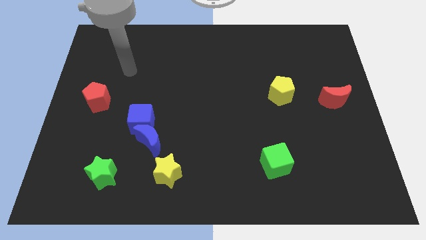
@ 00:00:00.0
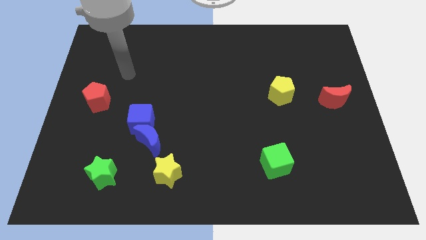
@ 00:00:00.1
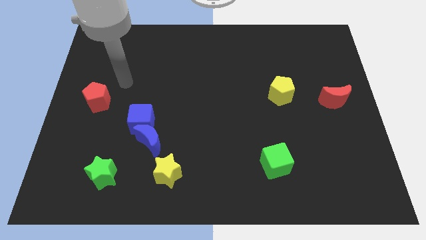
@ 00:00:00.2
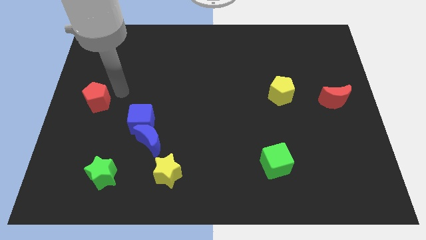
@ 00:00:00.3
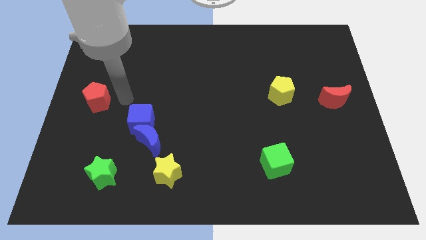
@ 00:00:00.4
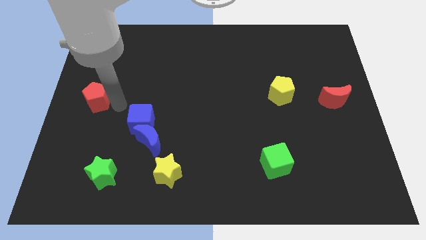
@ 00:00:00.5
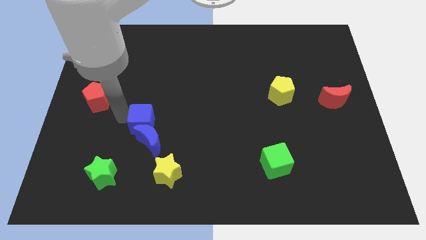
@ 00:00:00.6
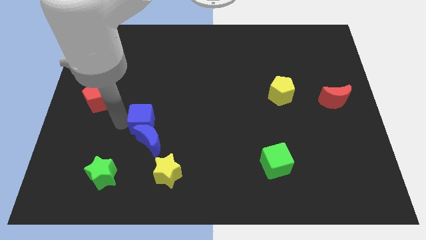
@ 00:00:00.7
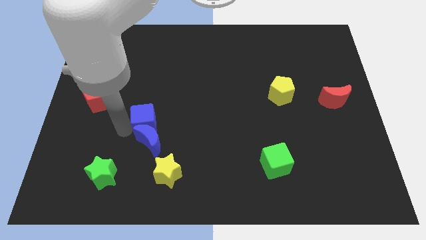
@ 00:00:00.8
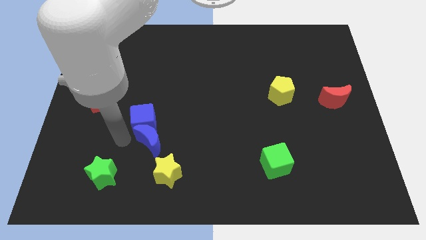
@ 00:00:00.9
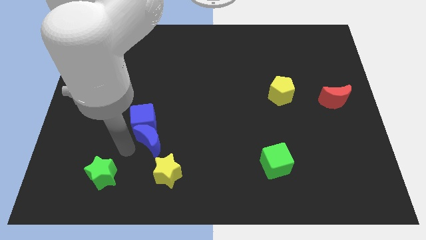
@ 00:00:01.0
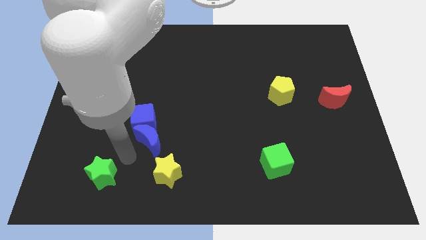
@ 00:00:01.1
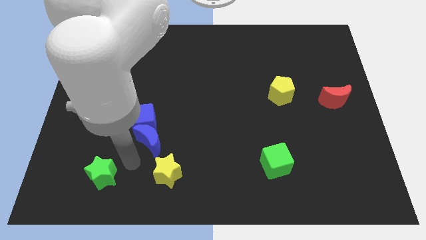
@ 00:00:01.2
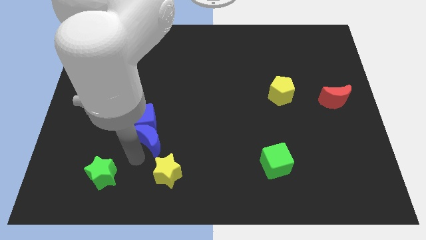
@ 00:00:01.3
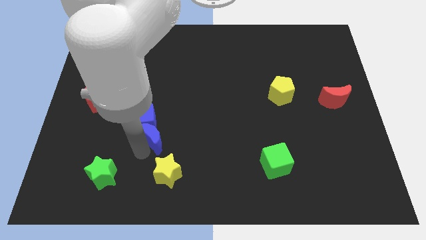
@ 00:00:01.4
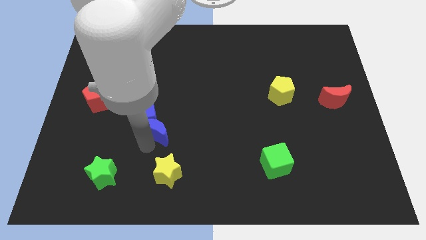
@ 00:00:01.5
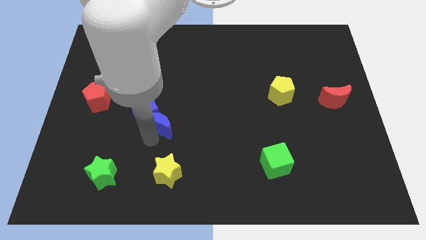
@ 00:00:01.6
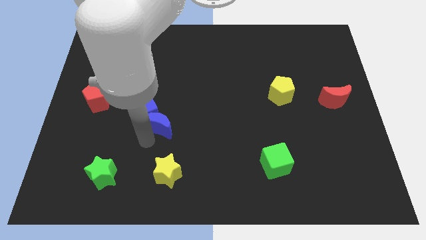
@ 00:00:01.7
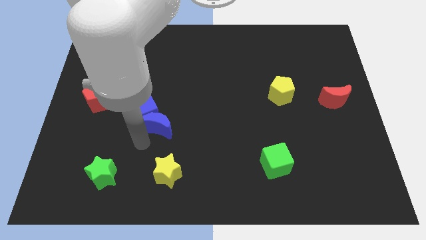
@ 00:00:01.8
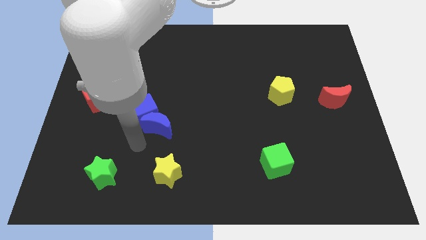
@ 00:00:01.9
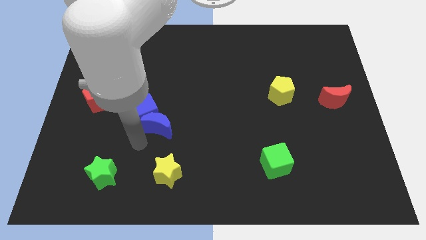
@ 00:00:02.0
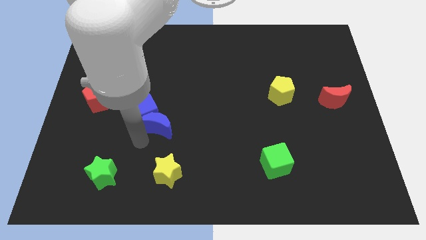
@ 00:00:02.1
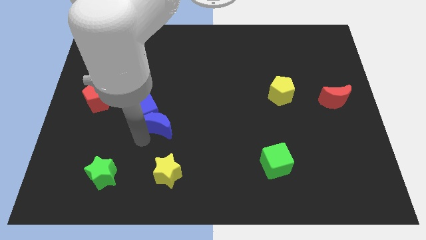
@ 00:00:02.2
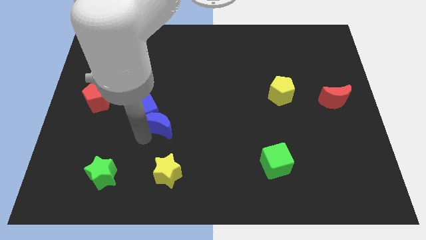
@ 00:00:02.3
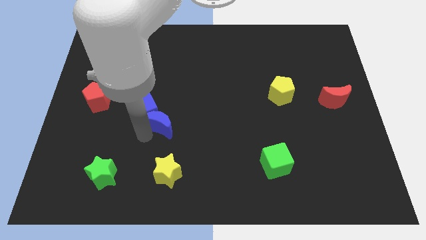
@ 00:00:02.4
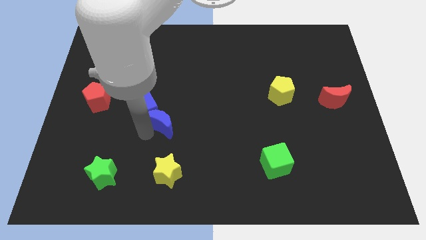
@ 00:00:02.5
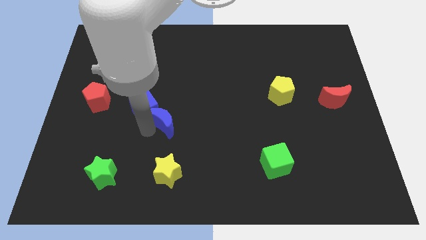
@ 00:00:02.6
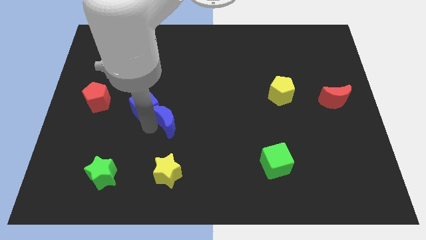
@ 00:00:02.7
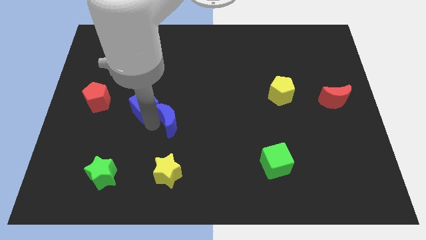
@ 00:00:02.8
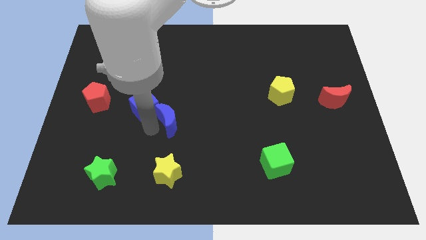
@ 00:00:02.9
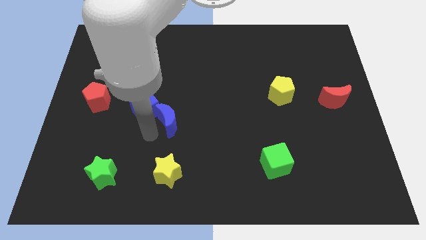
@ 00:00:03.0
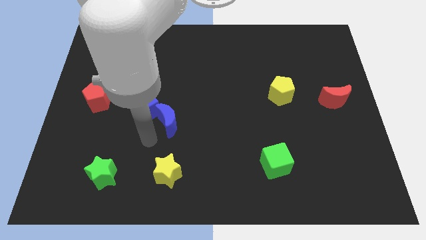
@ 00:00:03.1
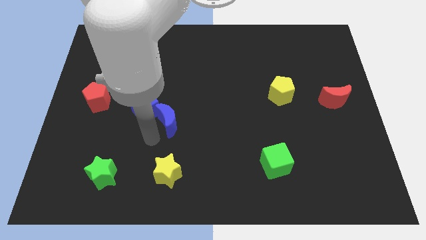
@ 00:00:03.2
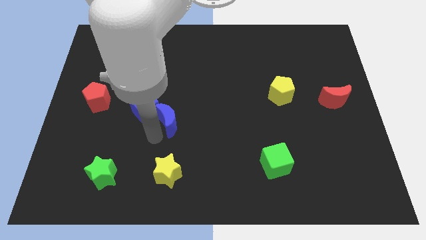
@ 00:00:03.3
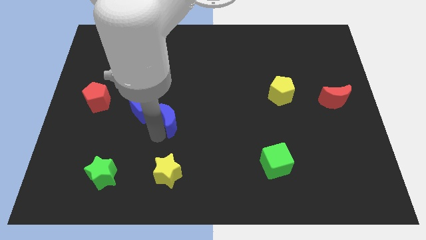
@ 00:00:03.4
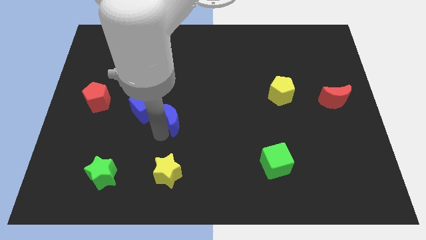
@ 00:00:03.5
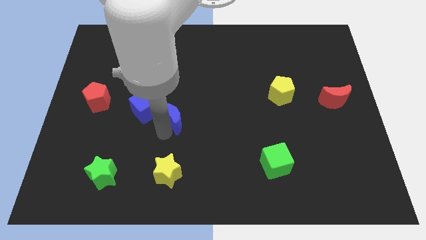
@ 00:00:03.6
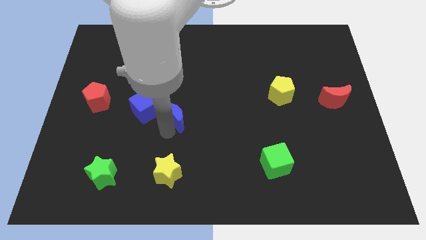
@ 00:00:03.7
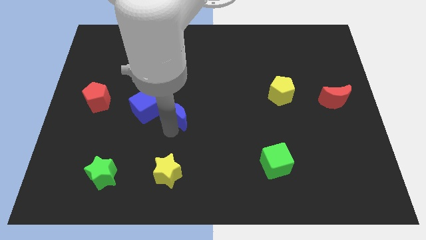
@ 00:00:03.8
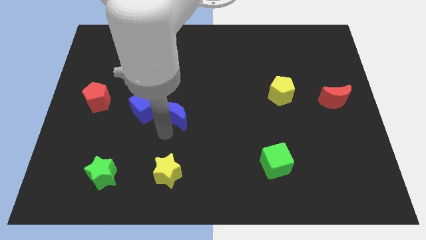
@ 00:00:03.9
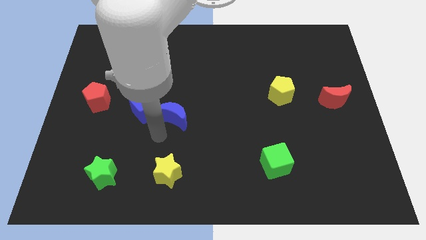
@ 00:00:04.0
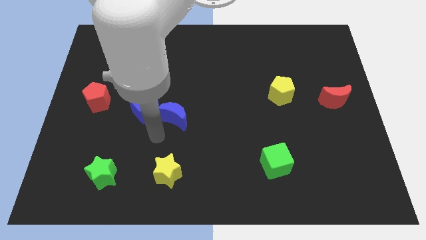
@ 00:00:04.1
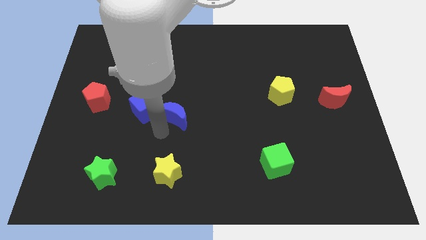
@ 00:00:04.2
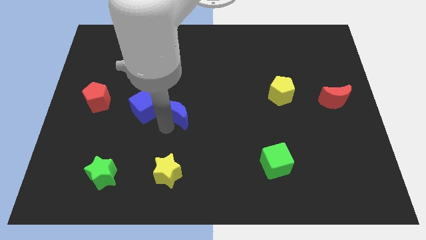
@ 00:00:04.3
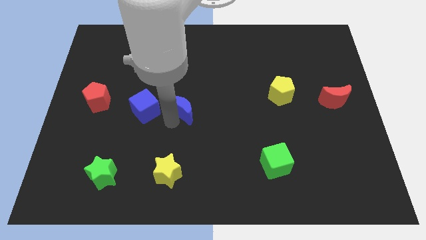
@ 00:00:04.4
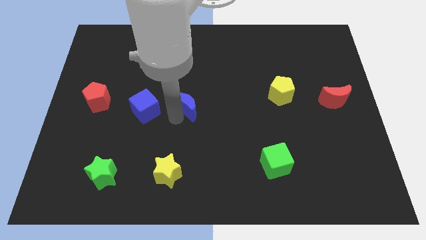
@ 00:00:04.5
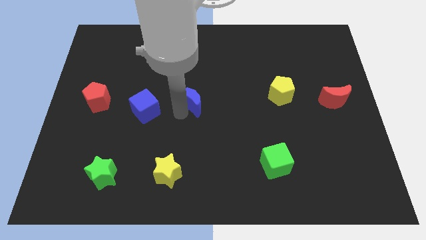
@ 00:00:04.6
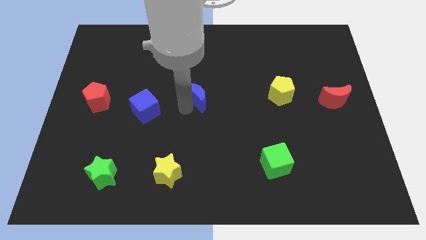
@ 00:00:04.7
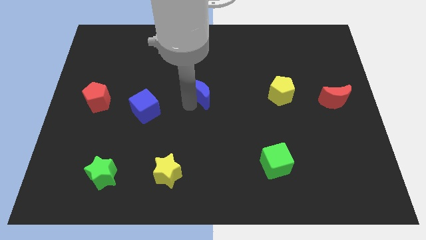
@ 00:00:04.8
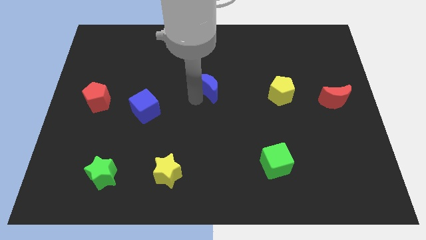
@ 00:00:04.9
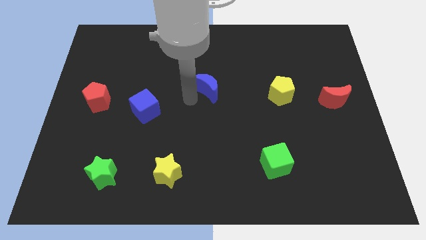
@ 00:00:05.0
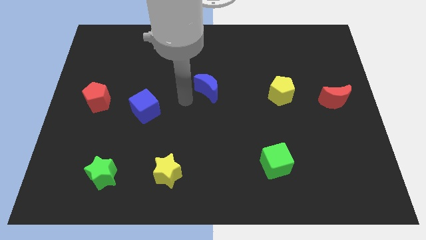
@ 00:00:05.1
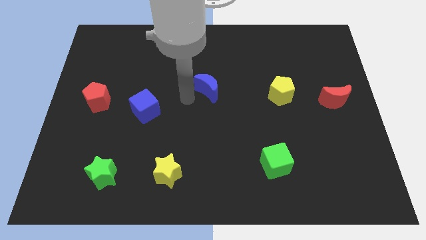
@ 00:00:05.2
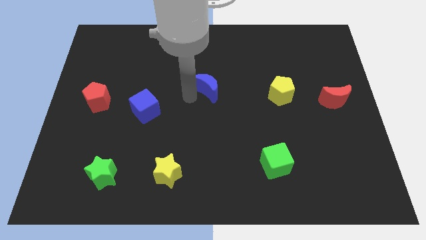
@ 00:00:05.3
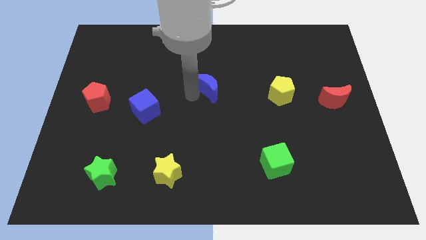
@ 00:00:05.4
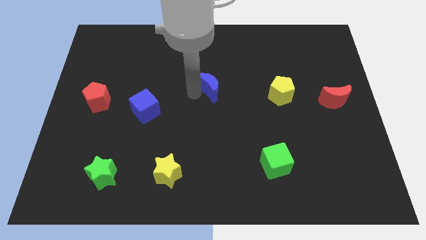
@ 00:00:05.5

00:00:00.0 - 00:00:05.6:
move the blue moon diagonally up and right

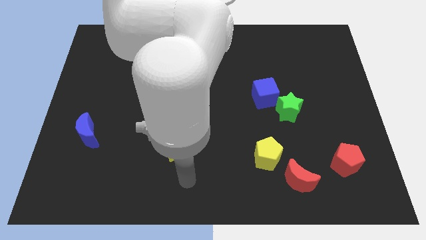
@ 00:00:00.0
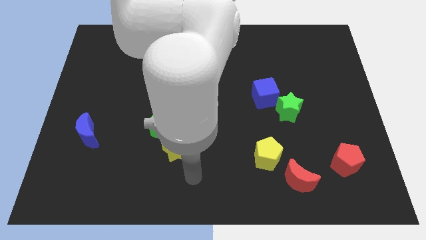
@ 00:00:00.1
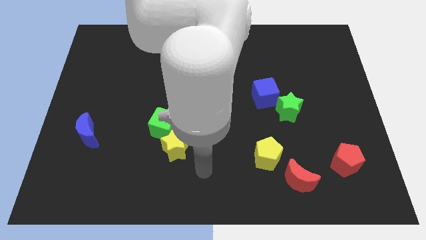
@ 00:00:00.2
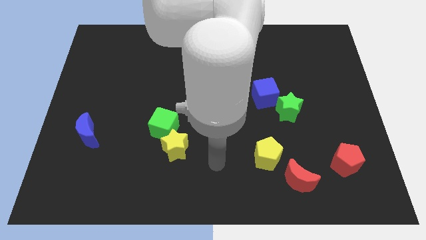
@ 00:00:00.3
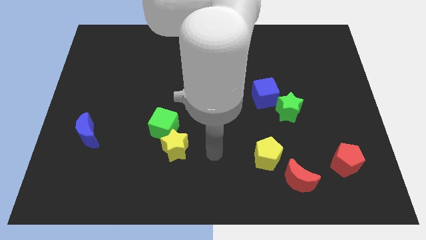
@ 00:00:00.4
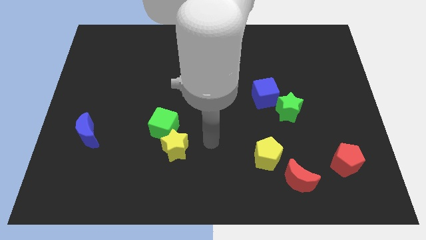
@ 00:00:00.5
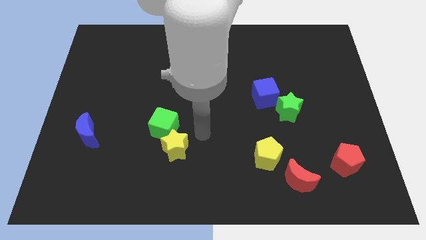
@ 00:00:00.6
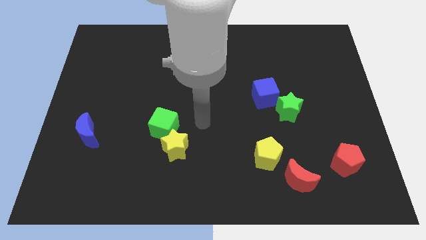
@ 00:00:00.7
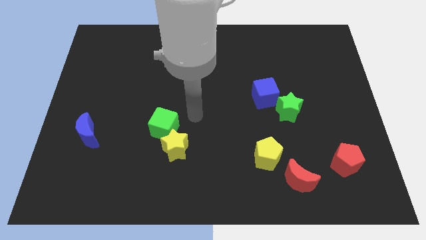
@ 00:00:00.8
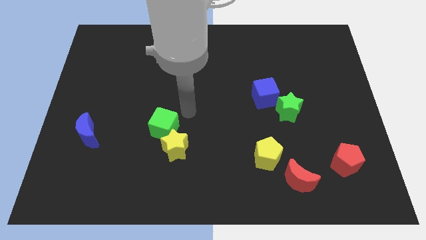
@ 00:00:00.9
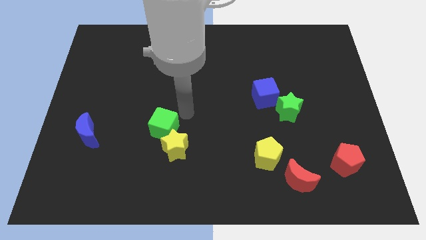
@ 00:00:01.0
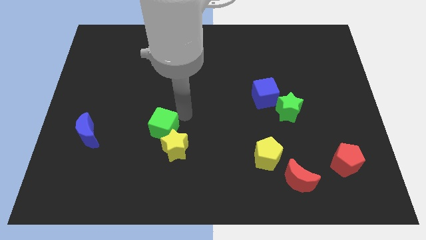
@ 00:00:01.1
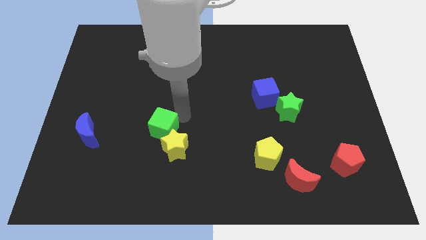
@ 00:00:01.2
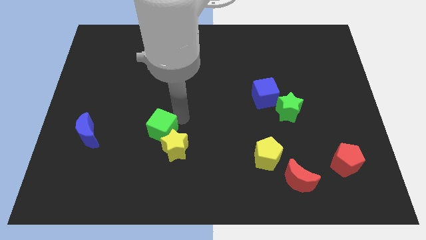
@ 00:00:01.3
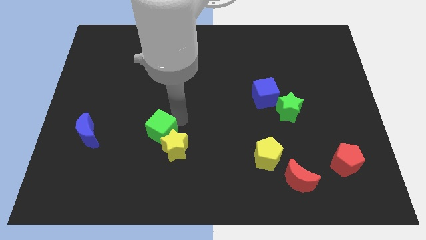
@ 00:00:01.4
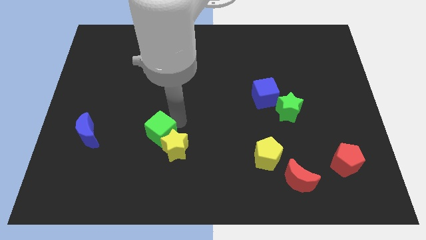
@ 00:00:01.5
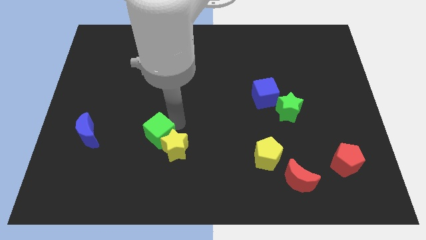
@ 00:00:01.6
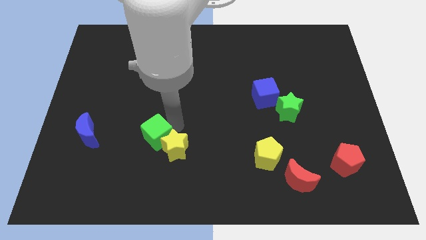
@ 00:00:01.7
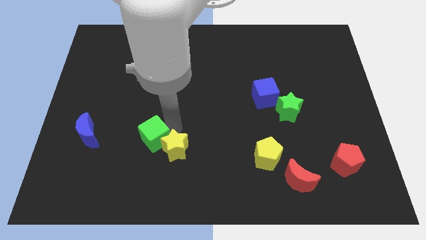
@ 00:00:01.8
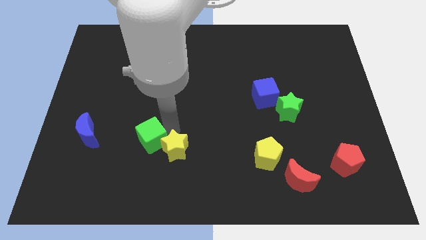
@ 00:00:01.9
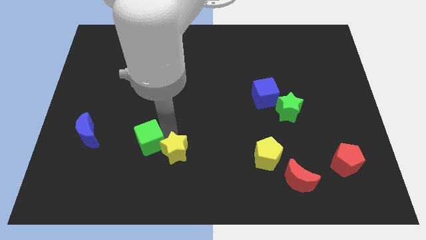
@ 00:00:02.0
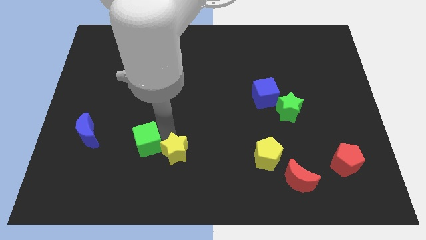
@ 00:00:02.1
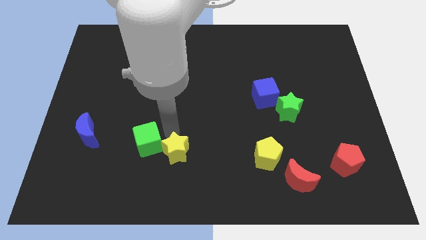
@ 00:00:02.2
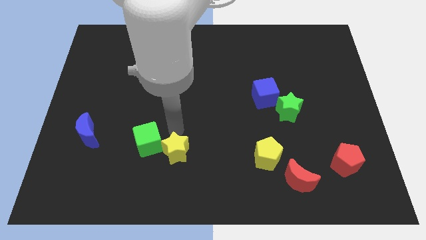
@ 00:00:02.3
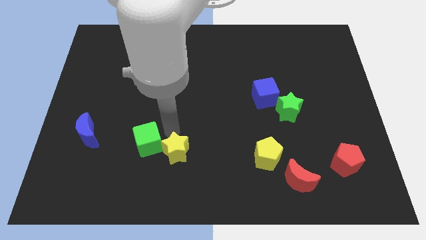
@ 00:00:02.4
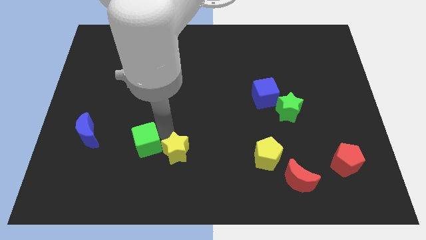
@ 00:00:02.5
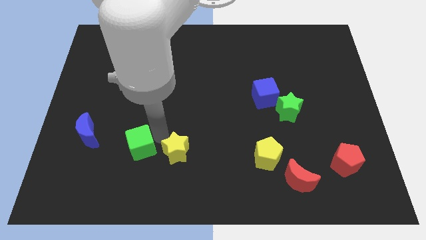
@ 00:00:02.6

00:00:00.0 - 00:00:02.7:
push the green cube down and to the left diagonally somewhat
